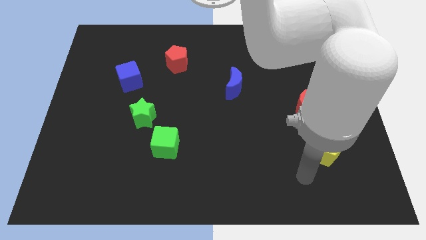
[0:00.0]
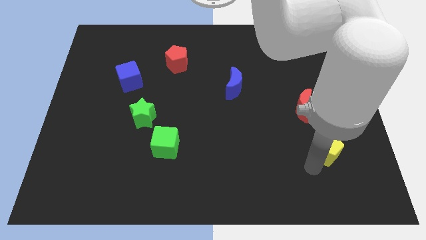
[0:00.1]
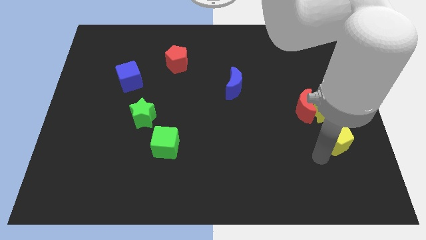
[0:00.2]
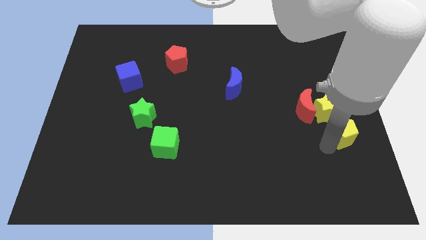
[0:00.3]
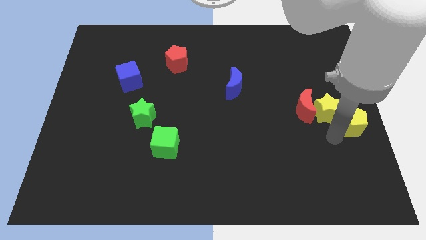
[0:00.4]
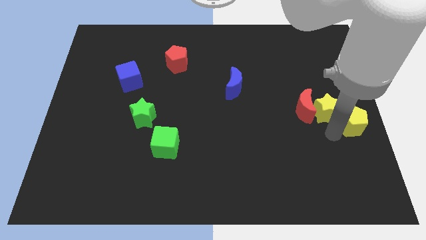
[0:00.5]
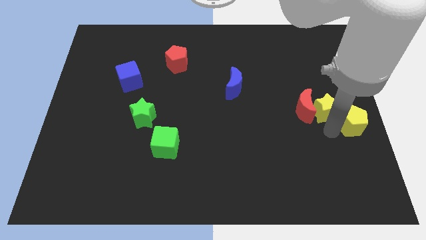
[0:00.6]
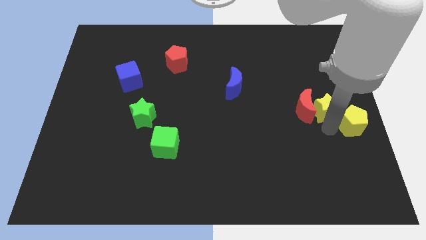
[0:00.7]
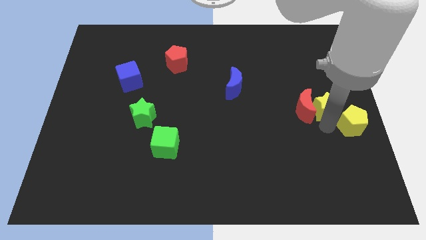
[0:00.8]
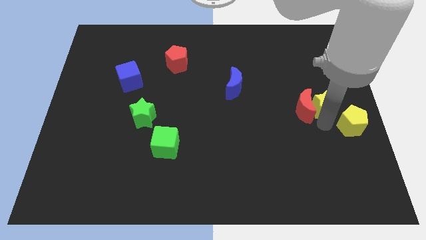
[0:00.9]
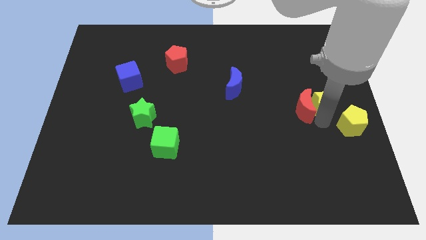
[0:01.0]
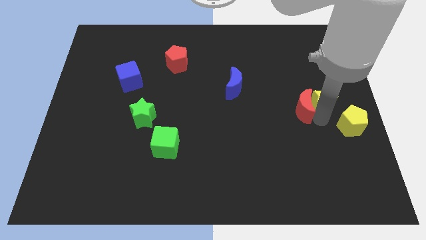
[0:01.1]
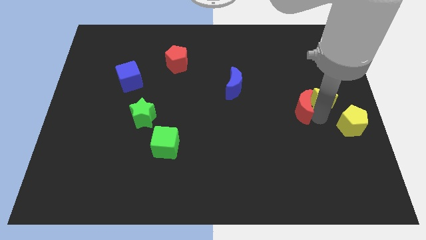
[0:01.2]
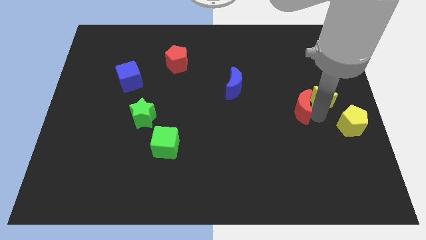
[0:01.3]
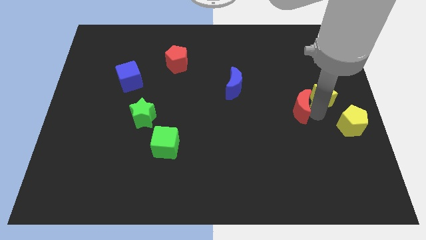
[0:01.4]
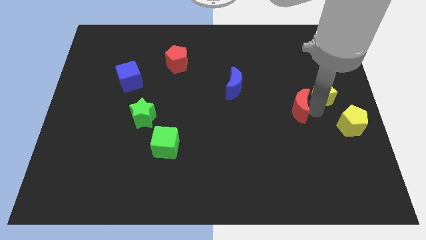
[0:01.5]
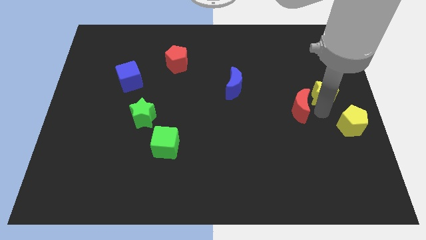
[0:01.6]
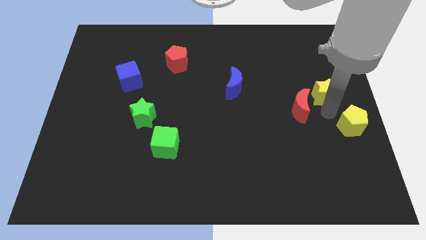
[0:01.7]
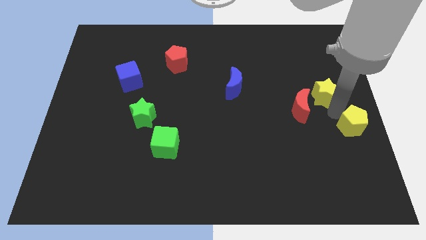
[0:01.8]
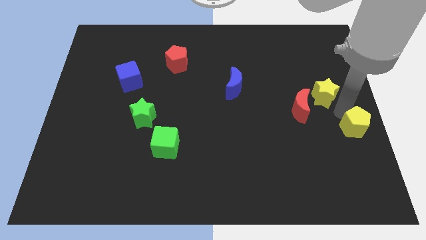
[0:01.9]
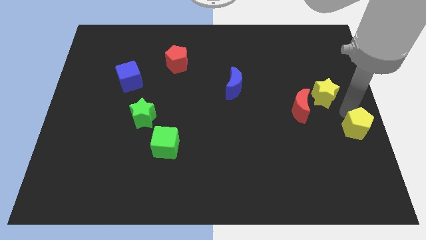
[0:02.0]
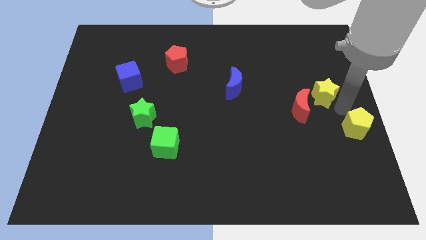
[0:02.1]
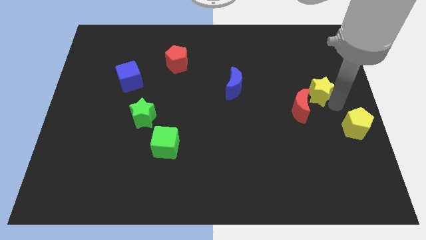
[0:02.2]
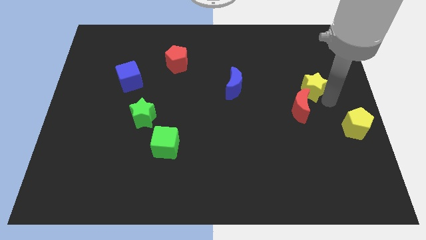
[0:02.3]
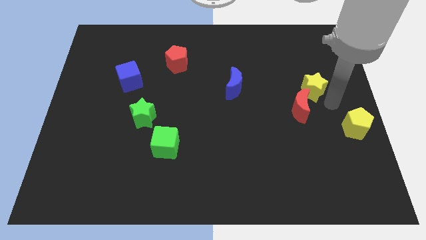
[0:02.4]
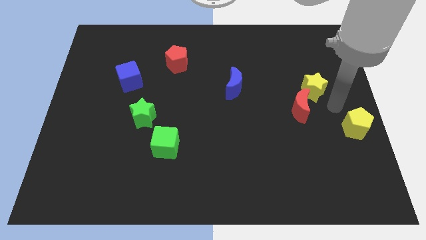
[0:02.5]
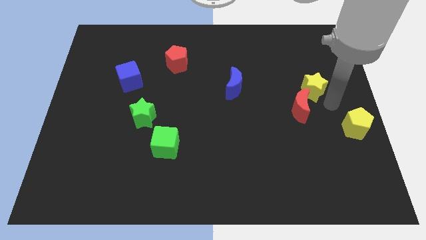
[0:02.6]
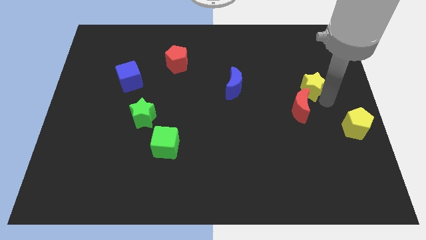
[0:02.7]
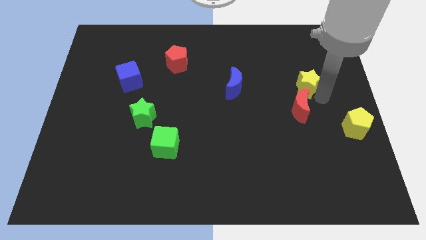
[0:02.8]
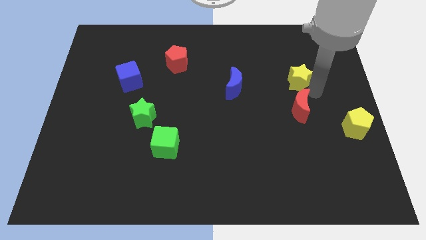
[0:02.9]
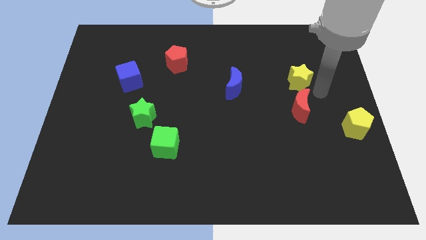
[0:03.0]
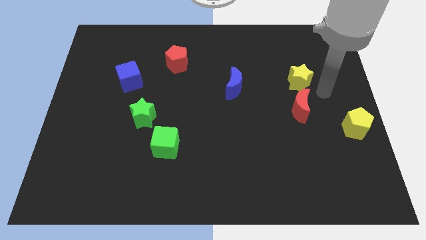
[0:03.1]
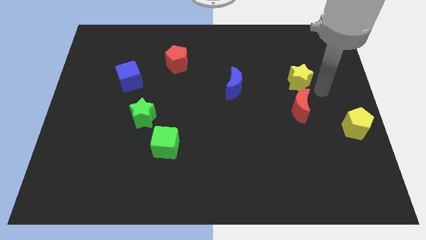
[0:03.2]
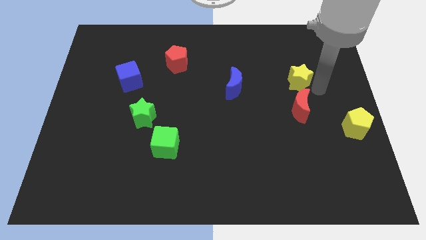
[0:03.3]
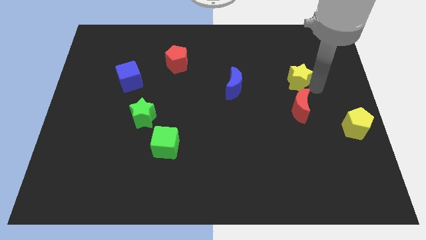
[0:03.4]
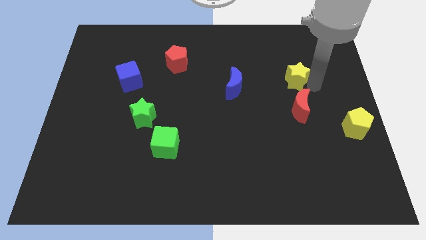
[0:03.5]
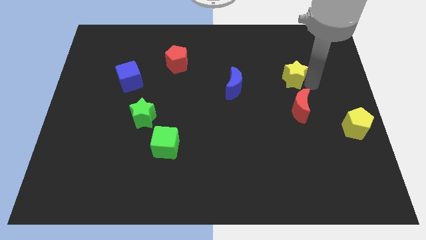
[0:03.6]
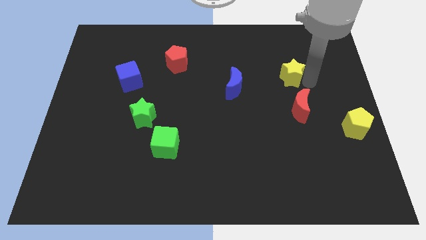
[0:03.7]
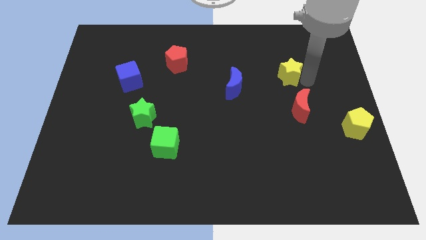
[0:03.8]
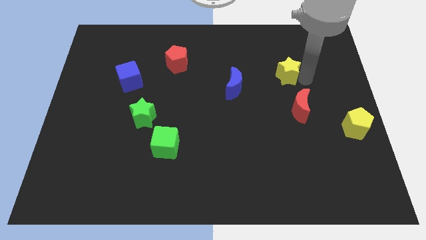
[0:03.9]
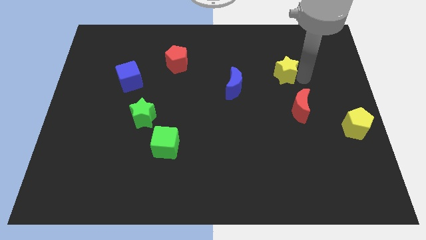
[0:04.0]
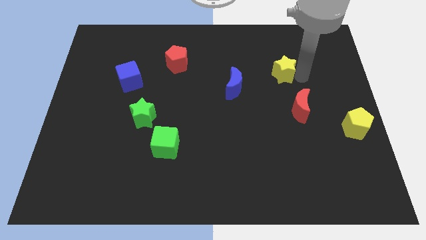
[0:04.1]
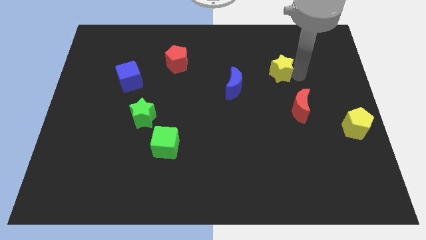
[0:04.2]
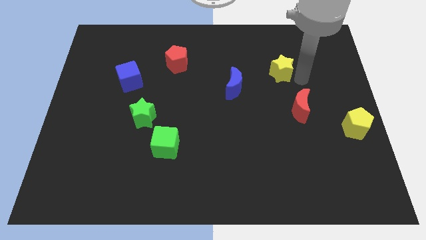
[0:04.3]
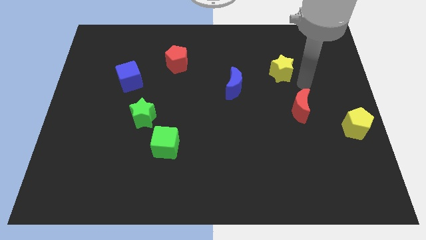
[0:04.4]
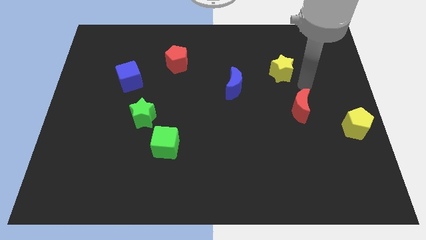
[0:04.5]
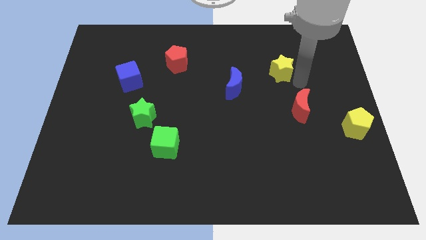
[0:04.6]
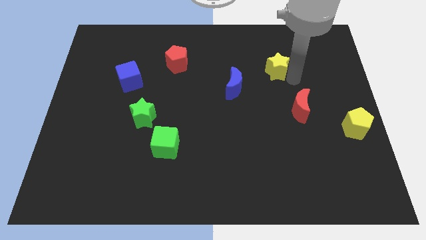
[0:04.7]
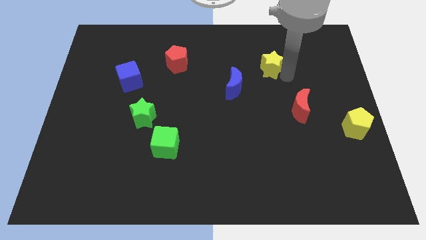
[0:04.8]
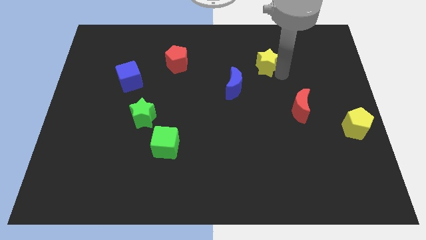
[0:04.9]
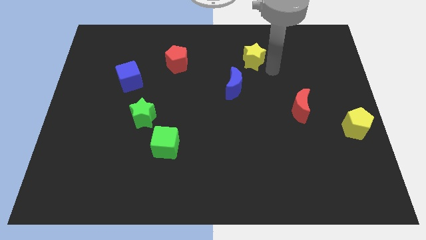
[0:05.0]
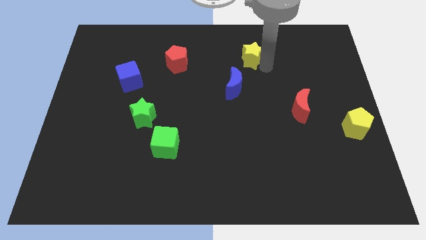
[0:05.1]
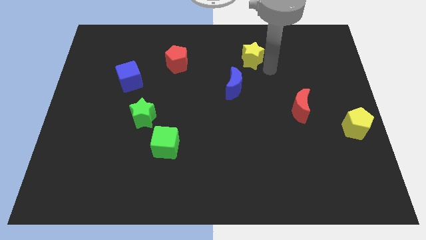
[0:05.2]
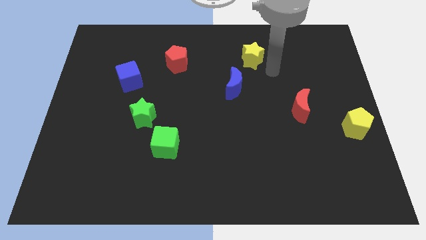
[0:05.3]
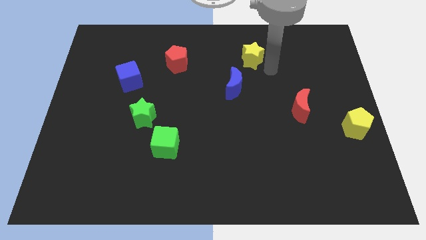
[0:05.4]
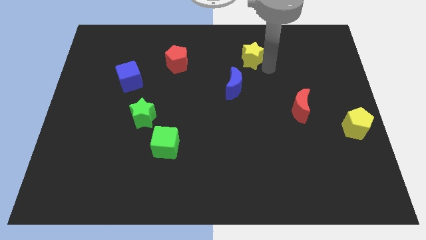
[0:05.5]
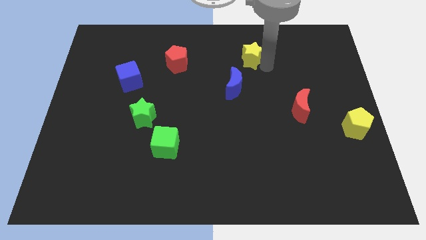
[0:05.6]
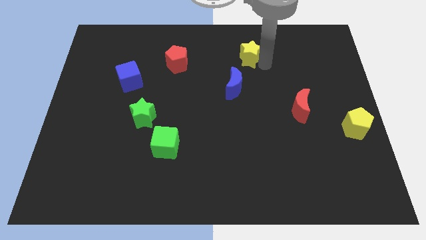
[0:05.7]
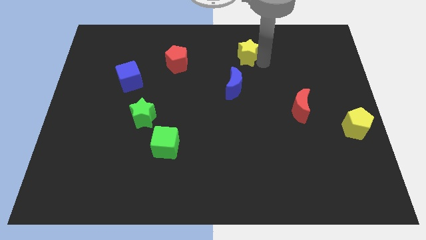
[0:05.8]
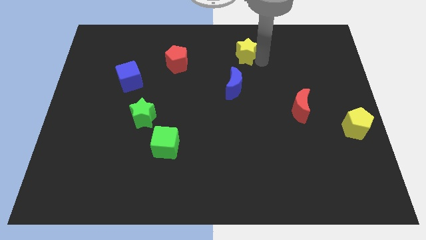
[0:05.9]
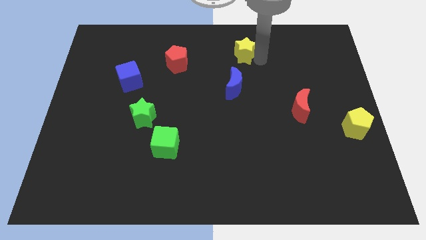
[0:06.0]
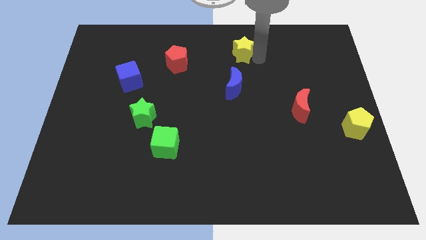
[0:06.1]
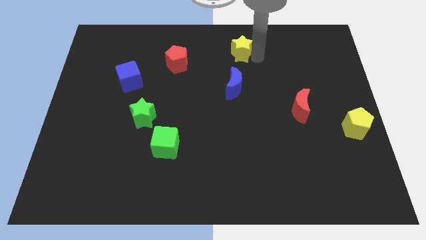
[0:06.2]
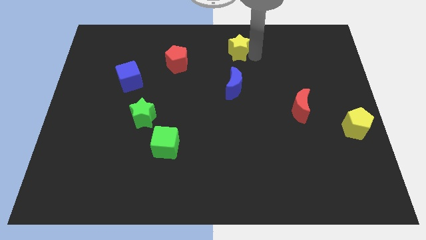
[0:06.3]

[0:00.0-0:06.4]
slide the yellow star to the top

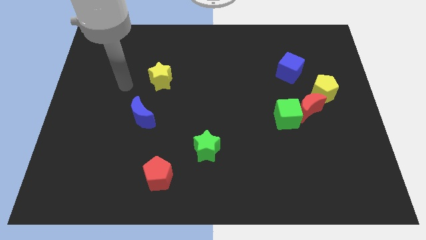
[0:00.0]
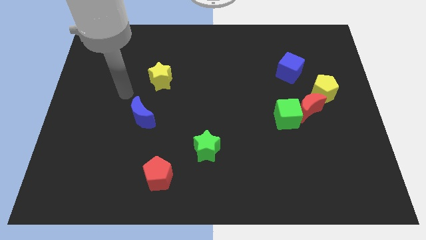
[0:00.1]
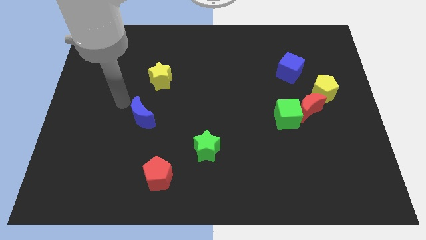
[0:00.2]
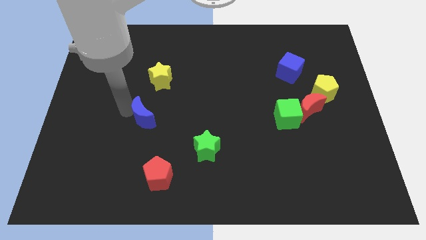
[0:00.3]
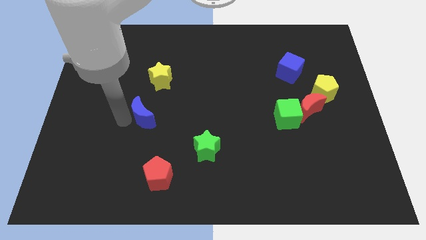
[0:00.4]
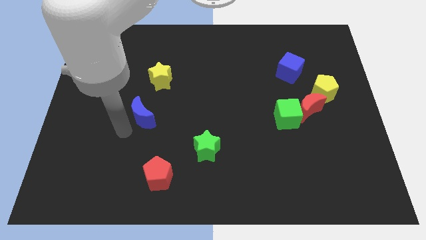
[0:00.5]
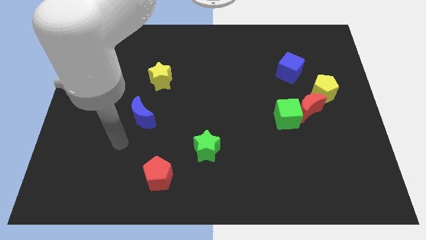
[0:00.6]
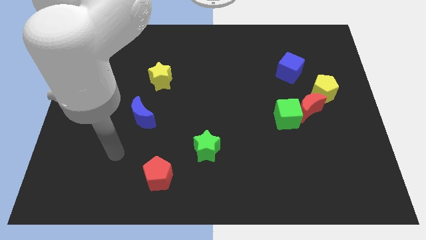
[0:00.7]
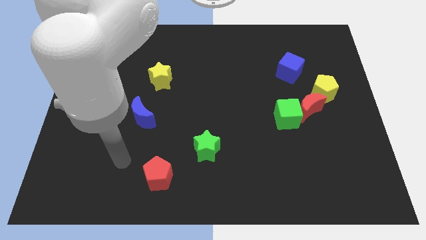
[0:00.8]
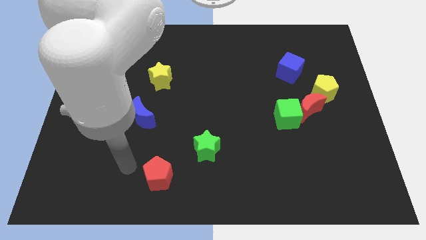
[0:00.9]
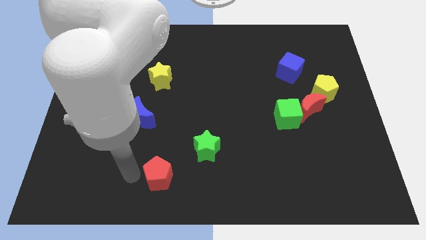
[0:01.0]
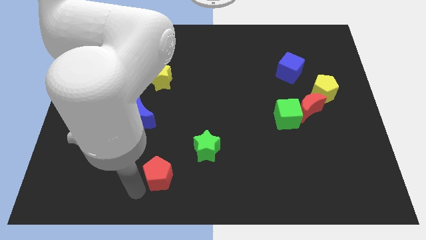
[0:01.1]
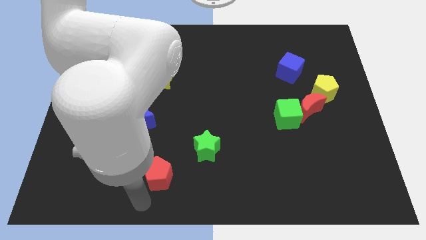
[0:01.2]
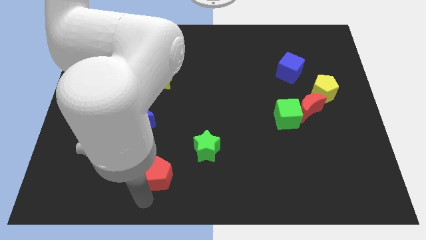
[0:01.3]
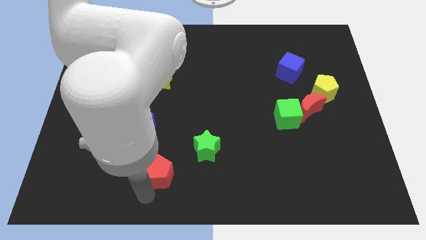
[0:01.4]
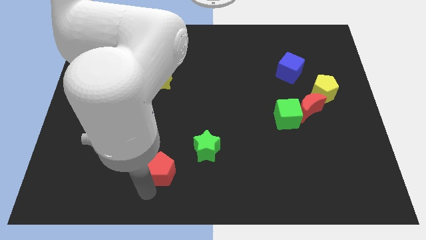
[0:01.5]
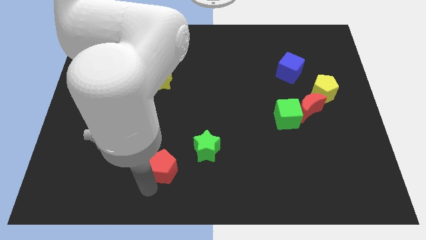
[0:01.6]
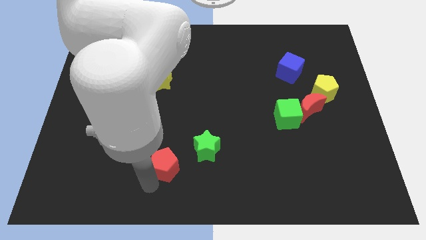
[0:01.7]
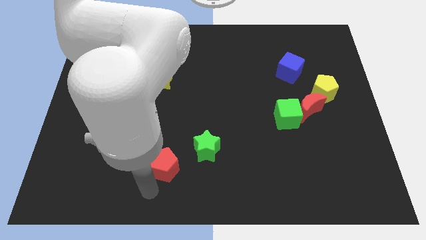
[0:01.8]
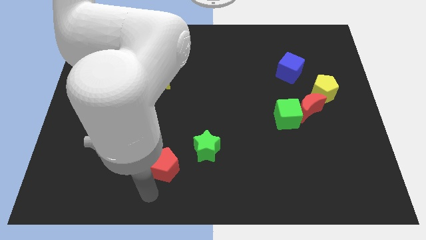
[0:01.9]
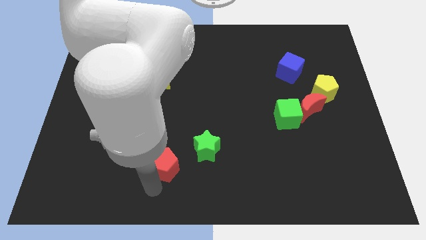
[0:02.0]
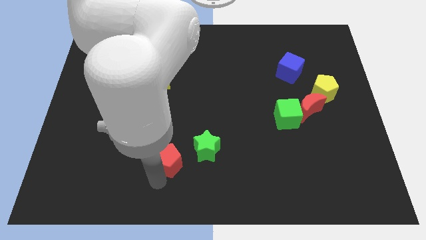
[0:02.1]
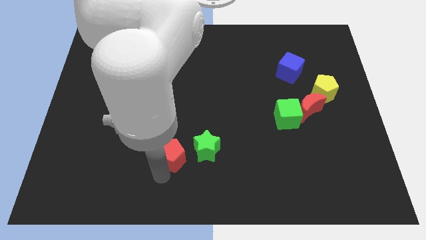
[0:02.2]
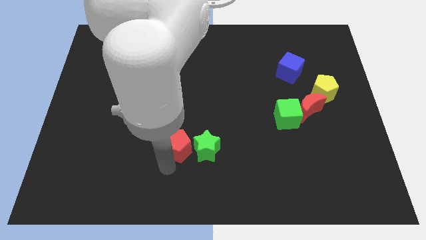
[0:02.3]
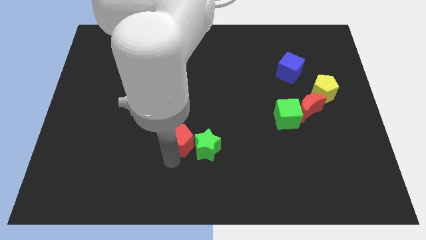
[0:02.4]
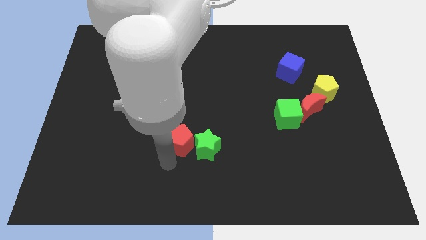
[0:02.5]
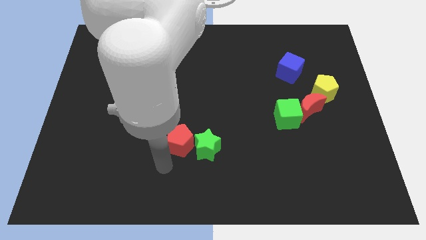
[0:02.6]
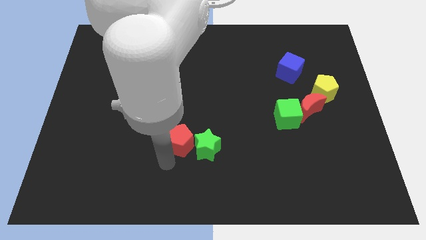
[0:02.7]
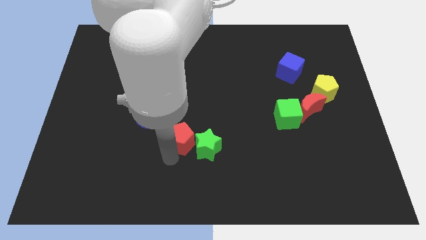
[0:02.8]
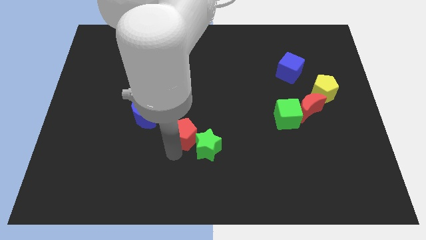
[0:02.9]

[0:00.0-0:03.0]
slide the red pentagon to the middle
